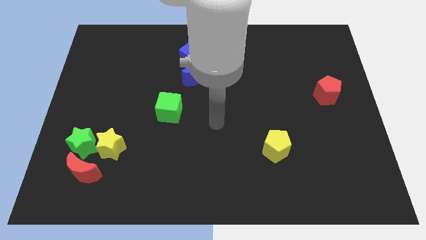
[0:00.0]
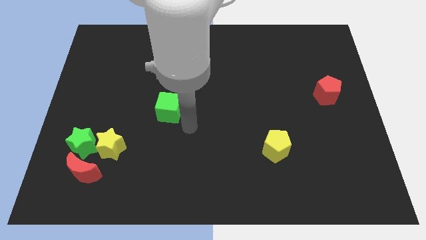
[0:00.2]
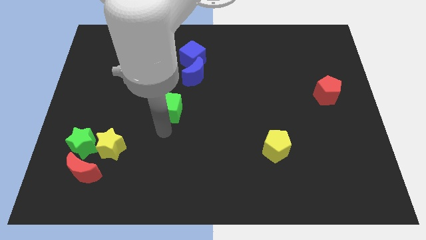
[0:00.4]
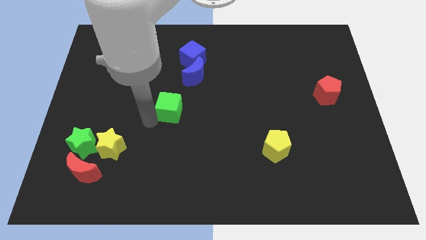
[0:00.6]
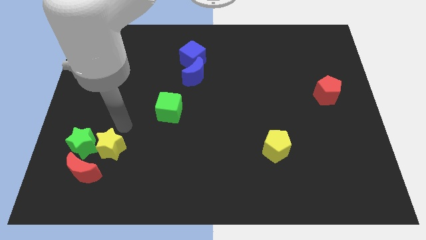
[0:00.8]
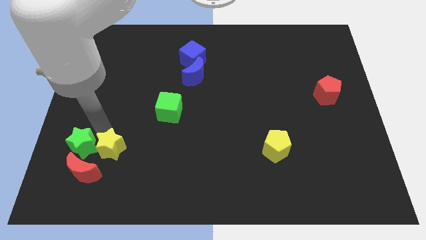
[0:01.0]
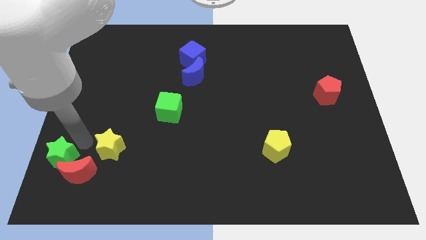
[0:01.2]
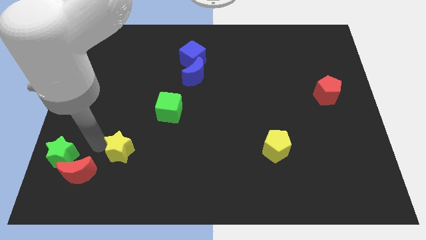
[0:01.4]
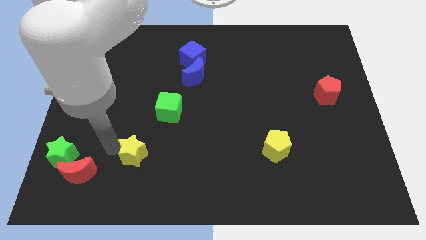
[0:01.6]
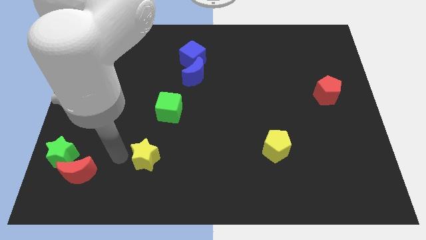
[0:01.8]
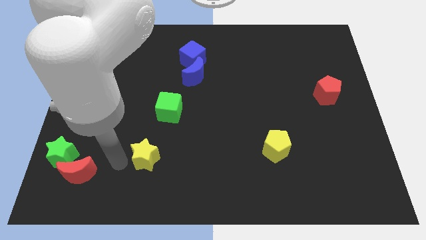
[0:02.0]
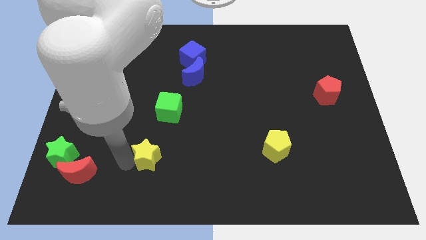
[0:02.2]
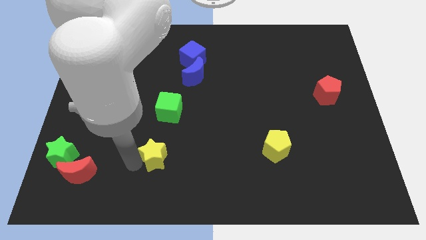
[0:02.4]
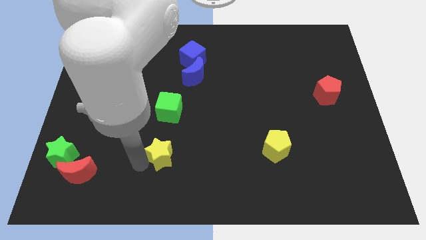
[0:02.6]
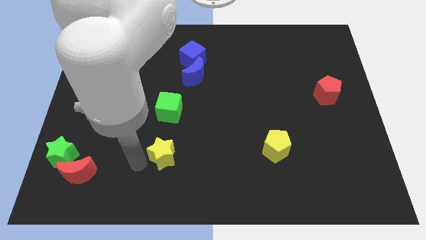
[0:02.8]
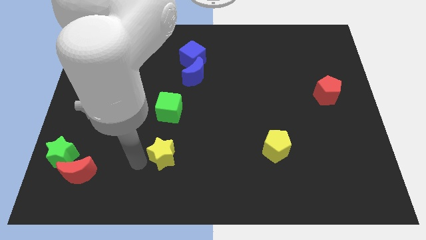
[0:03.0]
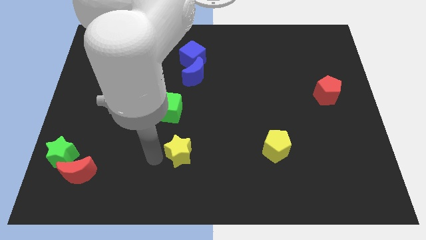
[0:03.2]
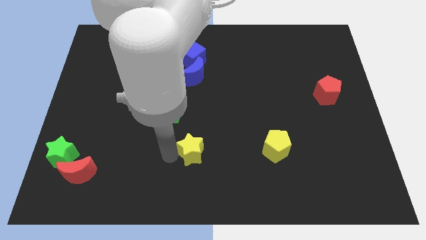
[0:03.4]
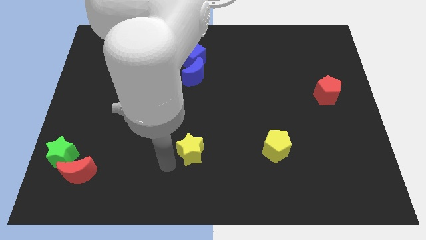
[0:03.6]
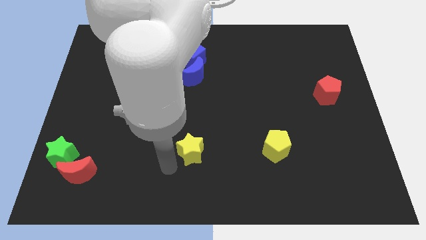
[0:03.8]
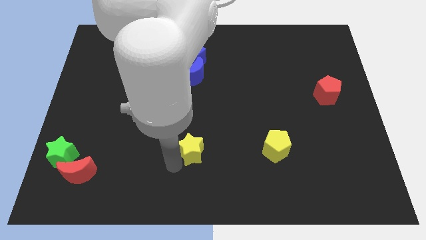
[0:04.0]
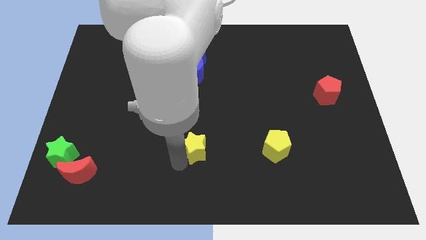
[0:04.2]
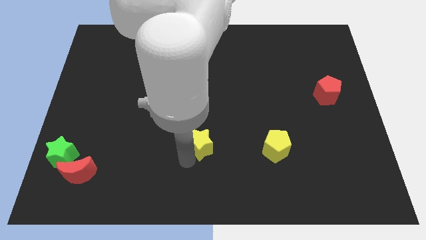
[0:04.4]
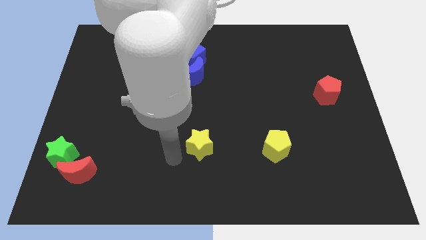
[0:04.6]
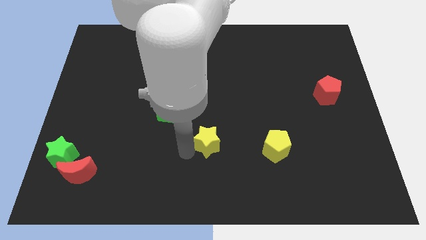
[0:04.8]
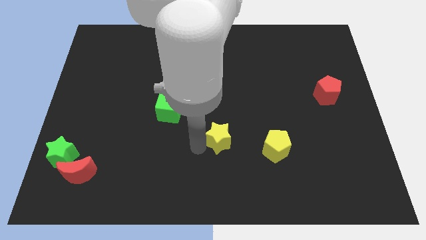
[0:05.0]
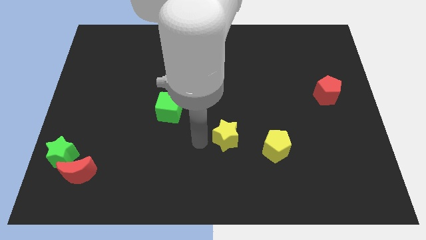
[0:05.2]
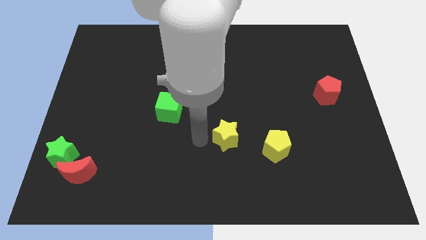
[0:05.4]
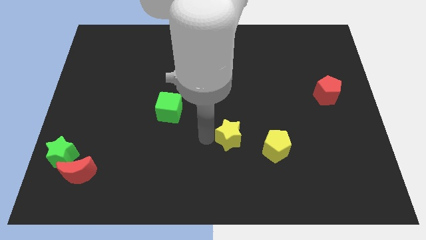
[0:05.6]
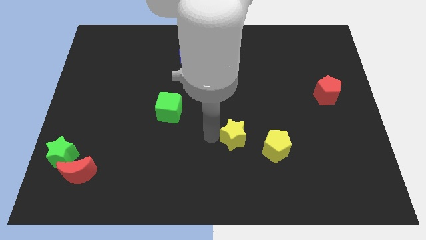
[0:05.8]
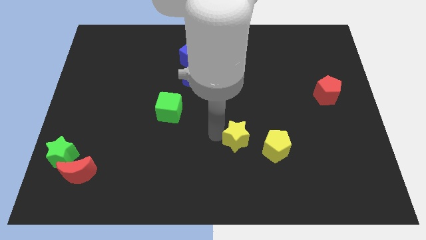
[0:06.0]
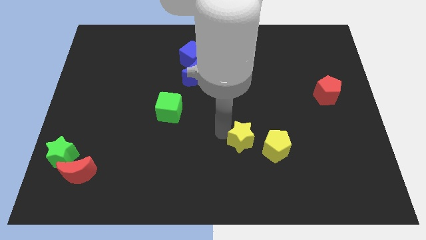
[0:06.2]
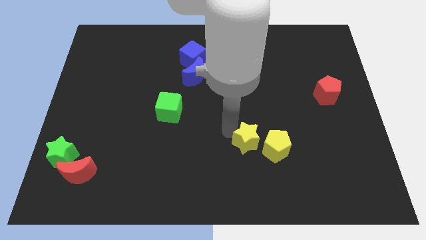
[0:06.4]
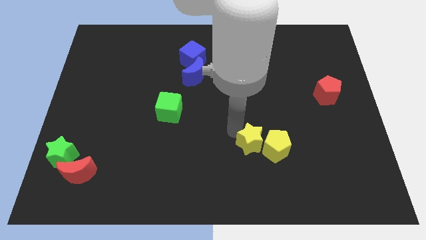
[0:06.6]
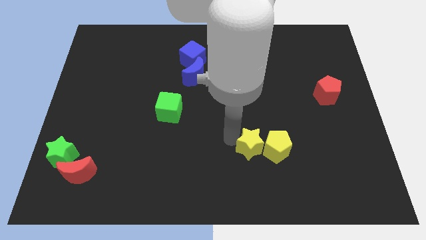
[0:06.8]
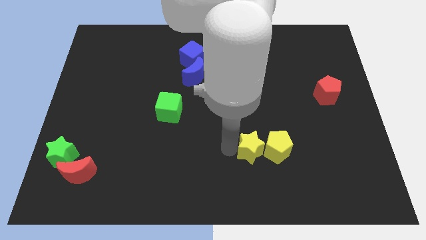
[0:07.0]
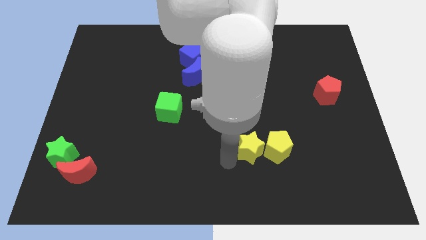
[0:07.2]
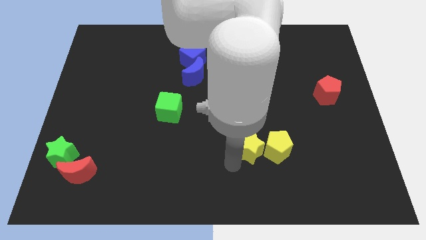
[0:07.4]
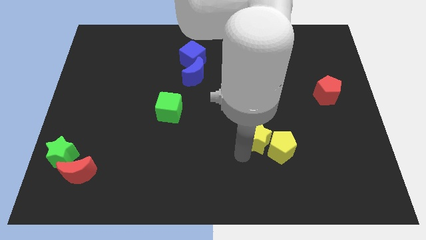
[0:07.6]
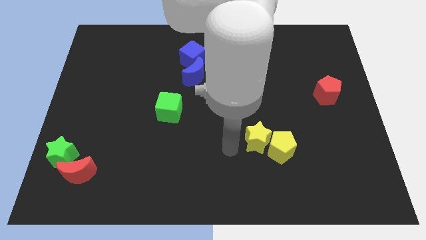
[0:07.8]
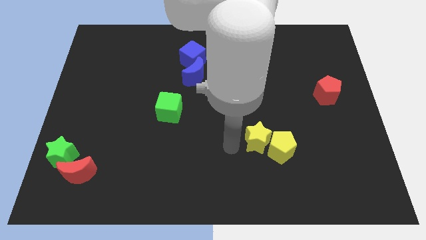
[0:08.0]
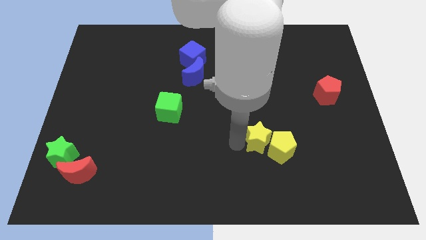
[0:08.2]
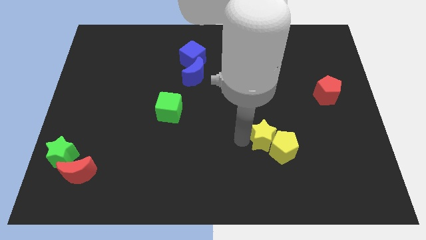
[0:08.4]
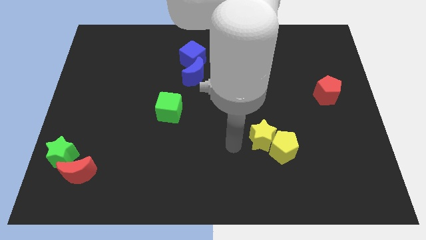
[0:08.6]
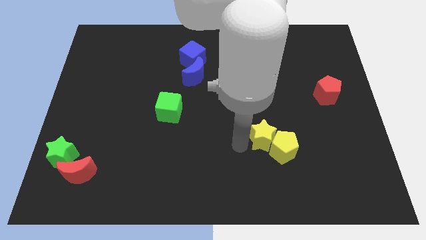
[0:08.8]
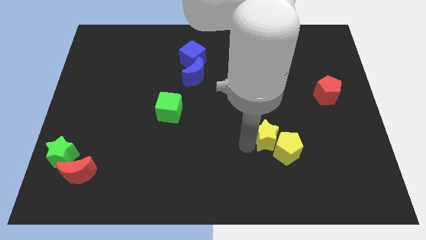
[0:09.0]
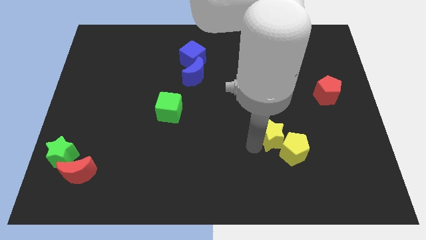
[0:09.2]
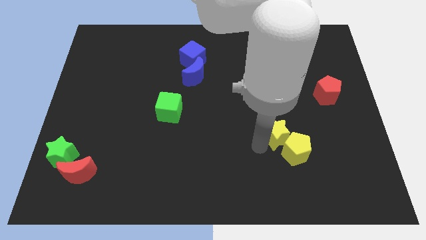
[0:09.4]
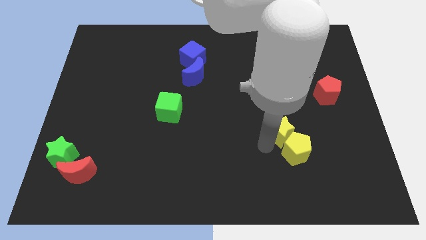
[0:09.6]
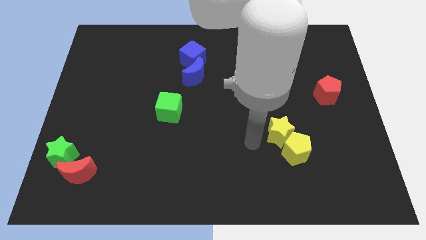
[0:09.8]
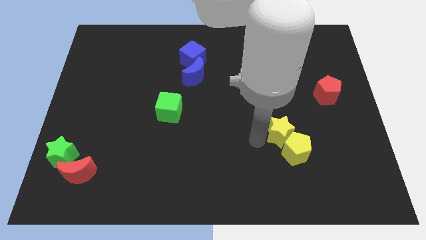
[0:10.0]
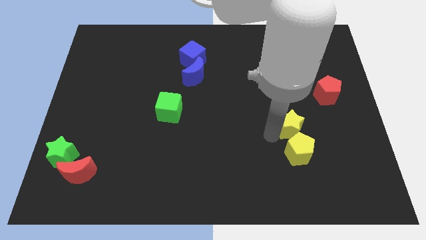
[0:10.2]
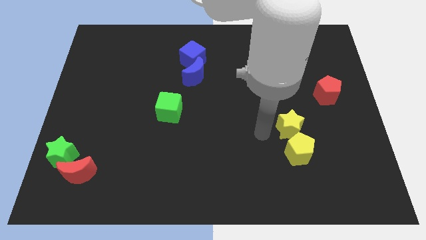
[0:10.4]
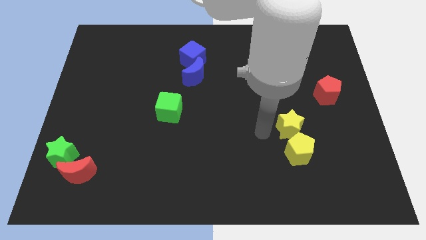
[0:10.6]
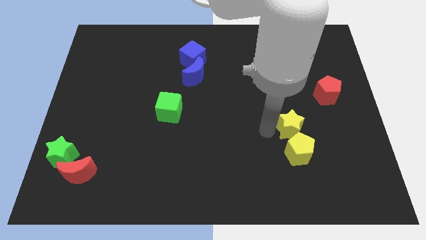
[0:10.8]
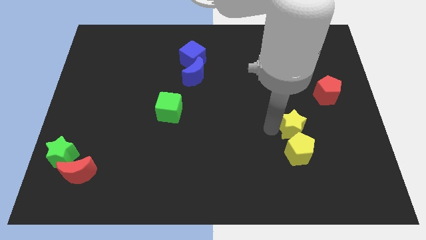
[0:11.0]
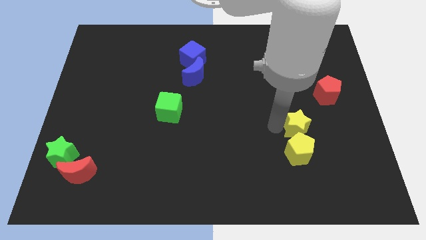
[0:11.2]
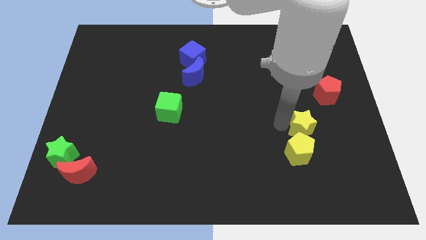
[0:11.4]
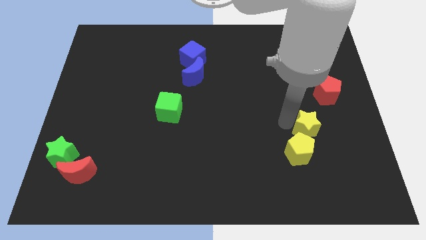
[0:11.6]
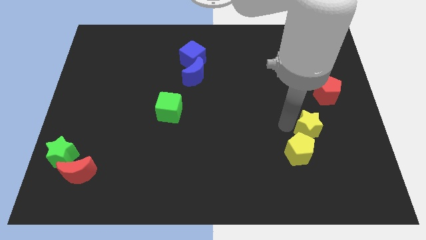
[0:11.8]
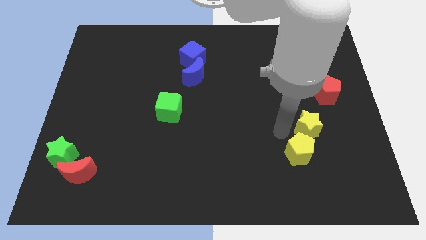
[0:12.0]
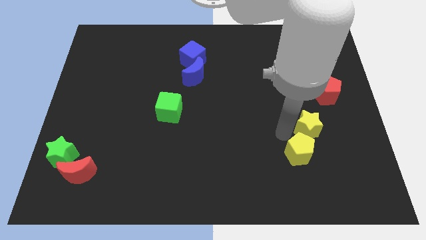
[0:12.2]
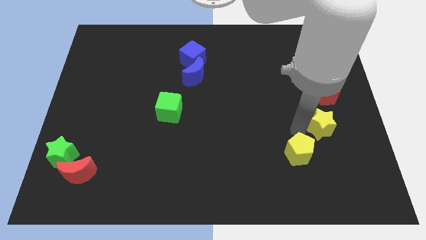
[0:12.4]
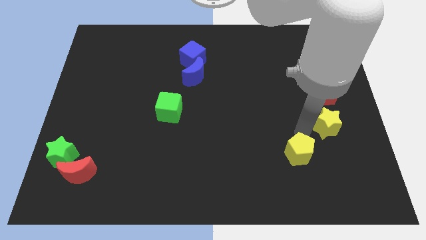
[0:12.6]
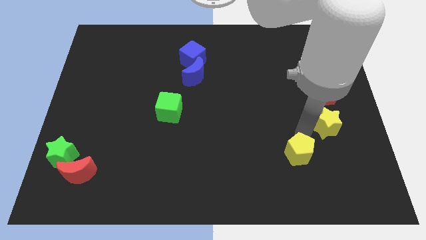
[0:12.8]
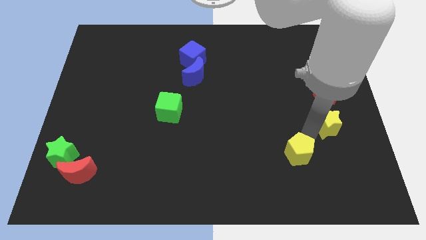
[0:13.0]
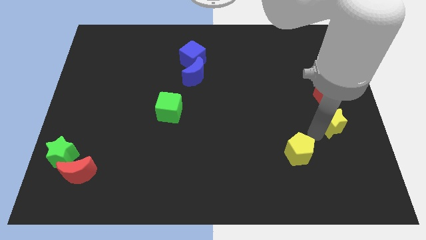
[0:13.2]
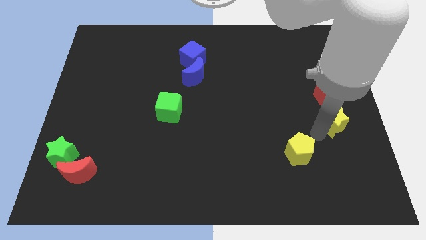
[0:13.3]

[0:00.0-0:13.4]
slide the yellow star to the right side of the board

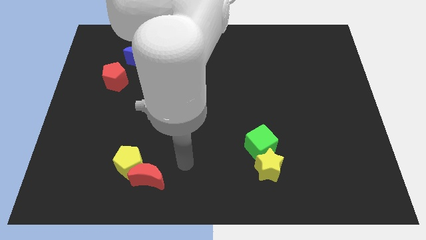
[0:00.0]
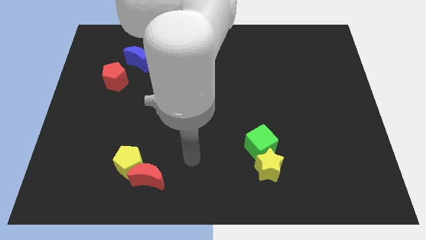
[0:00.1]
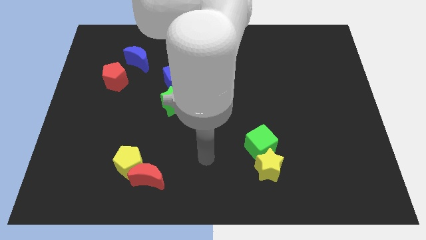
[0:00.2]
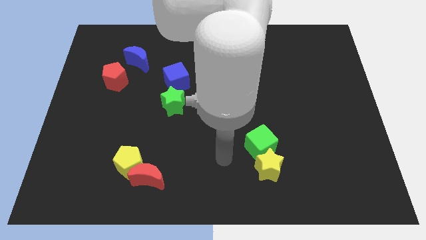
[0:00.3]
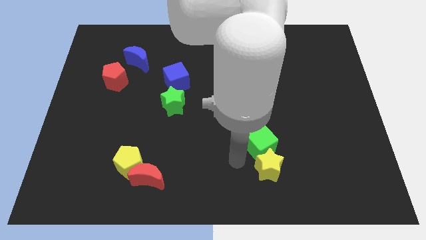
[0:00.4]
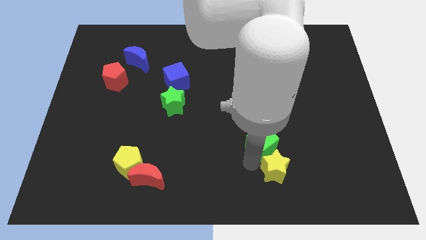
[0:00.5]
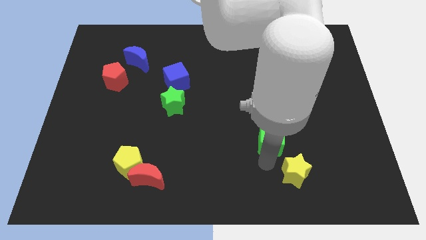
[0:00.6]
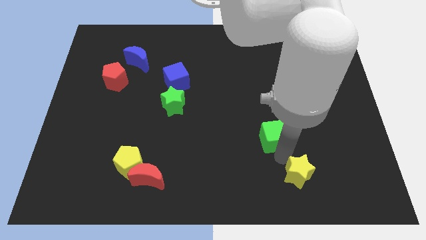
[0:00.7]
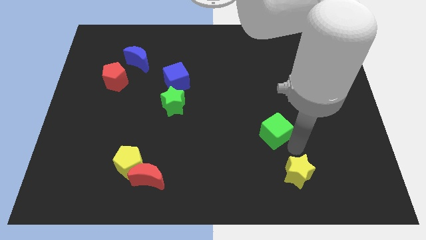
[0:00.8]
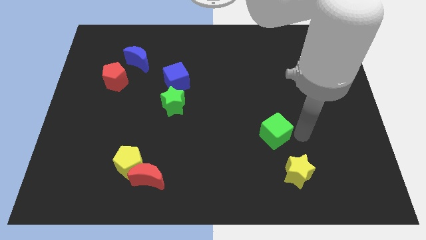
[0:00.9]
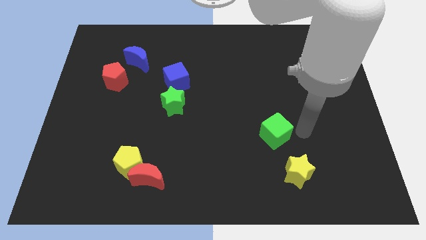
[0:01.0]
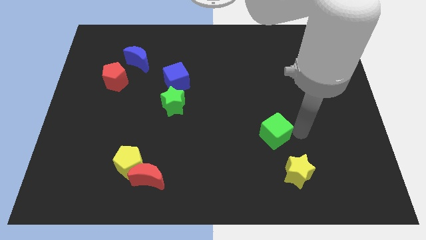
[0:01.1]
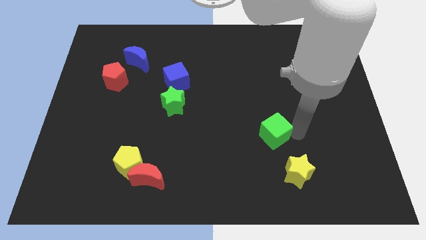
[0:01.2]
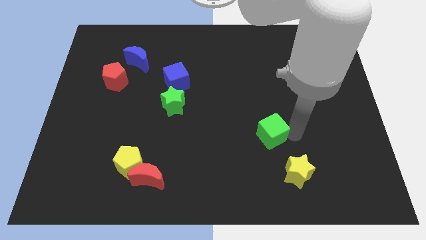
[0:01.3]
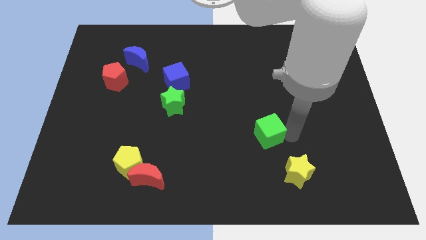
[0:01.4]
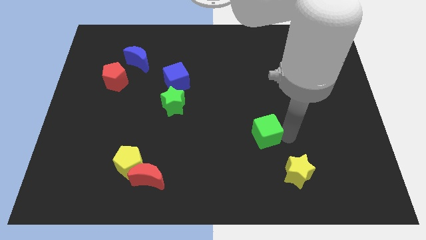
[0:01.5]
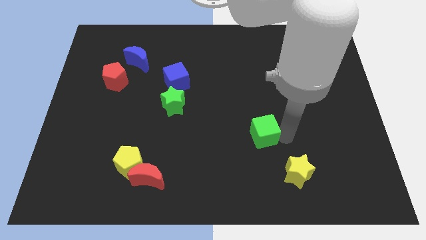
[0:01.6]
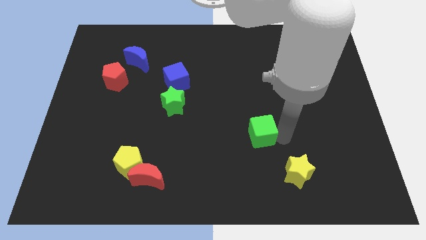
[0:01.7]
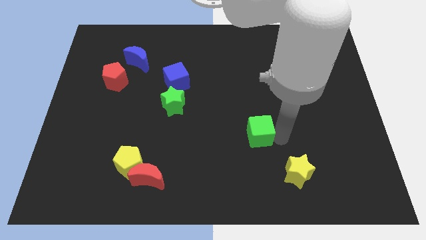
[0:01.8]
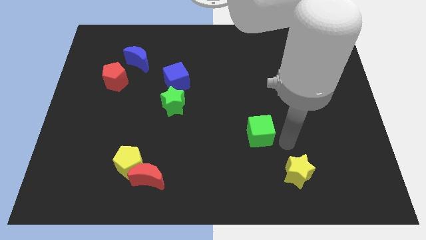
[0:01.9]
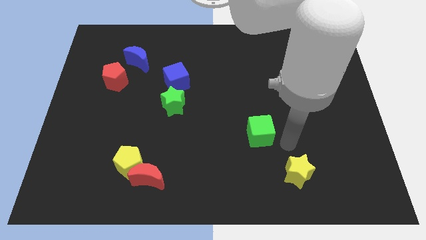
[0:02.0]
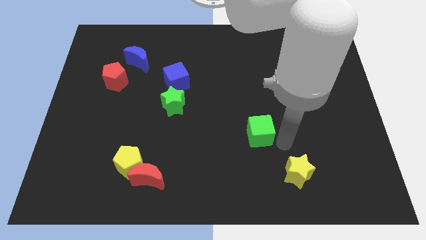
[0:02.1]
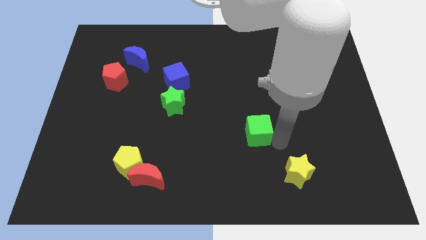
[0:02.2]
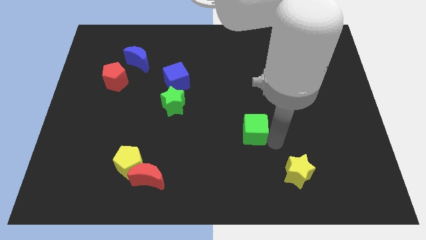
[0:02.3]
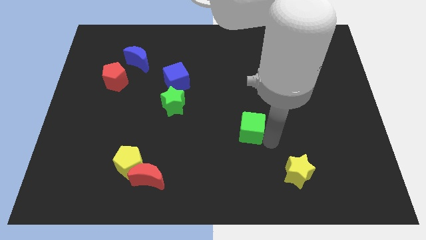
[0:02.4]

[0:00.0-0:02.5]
slide the green cube to the middle of the board
